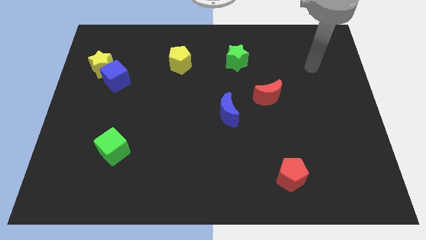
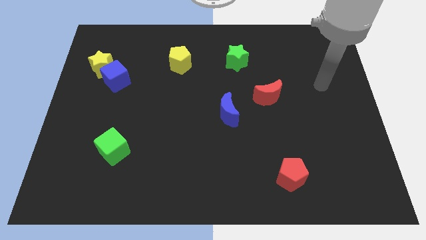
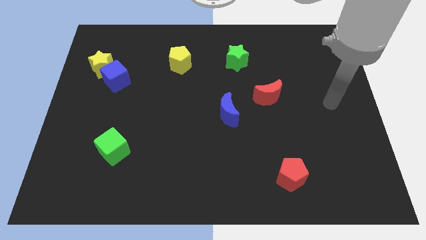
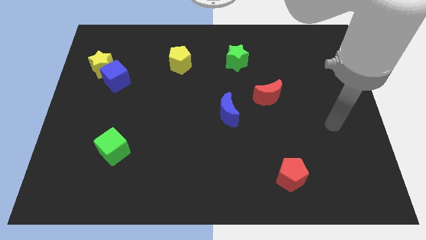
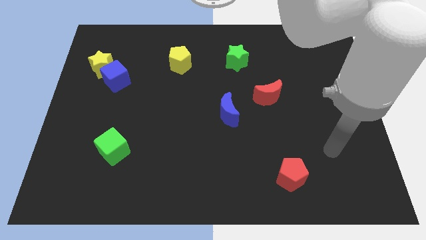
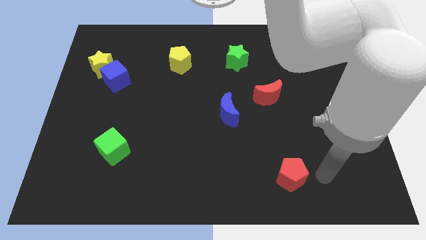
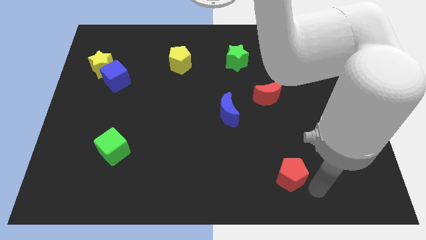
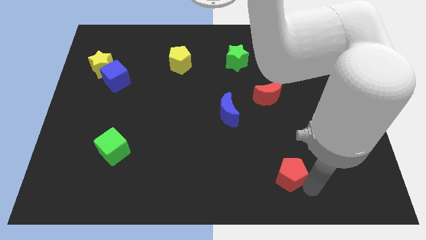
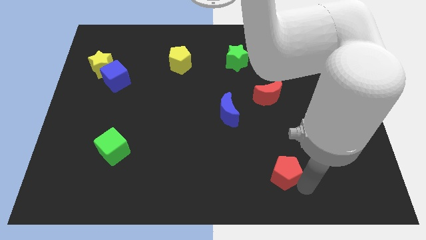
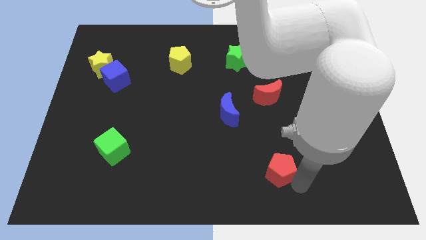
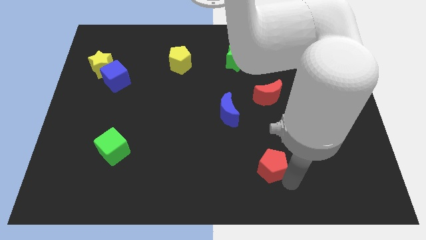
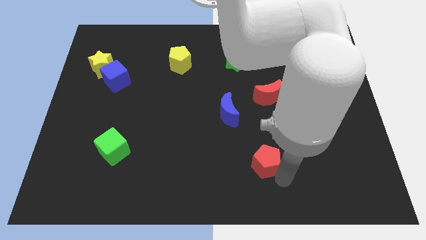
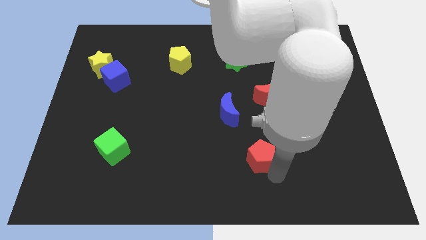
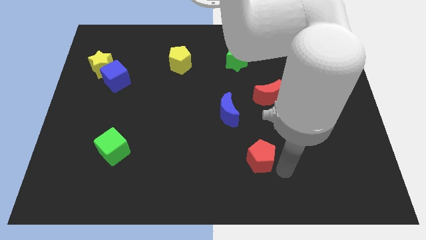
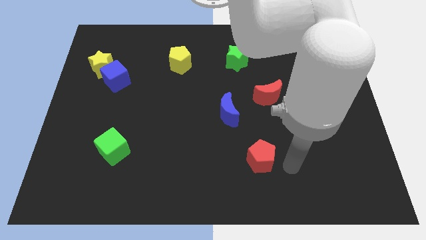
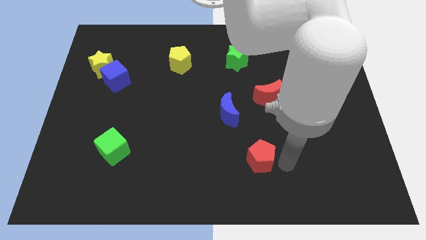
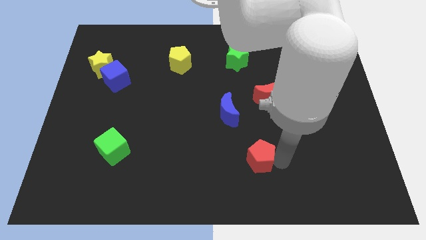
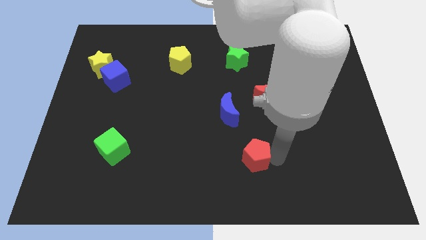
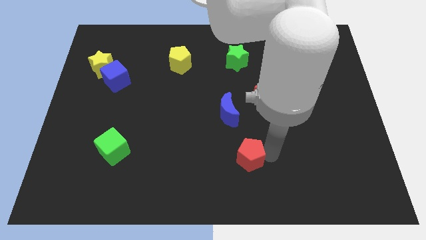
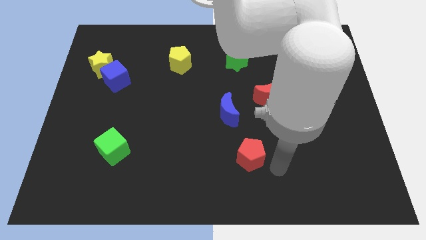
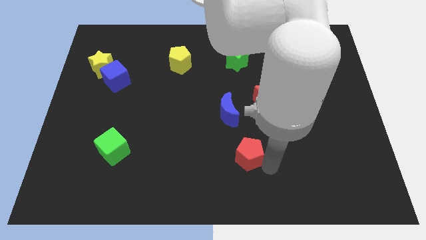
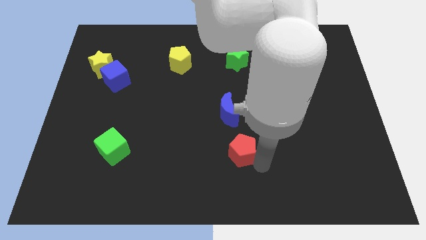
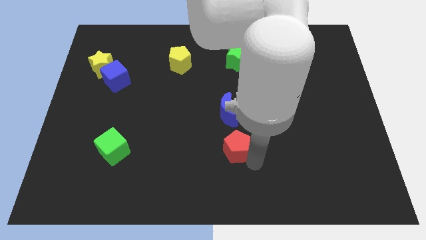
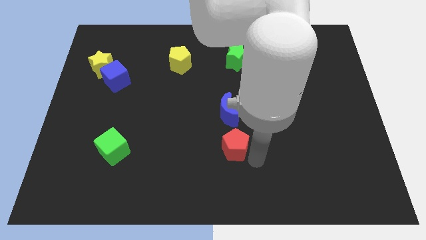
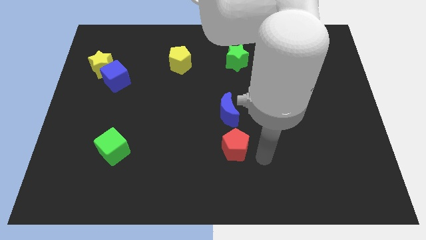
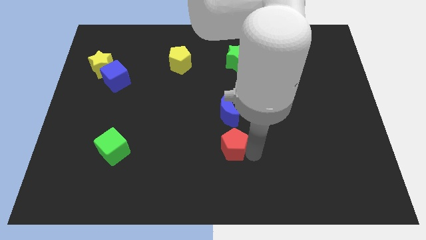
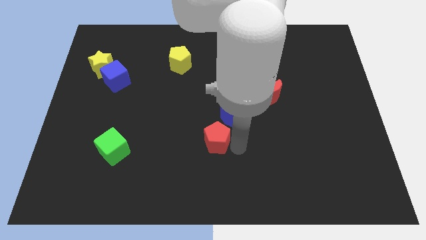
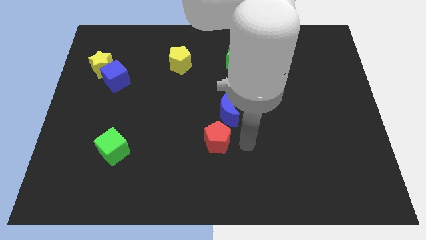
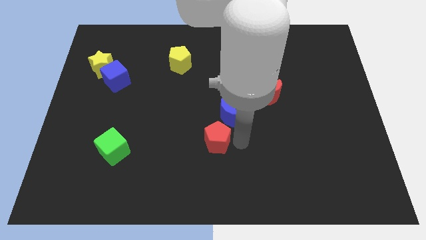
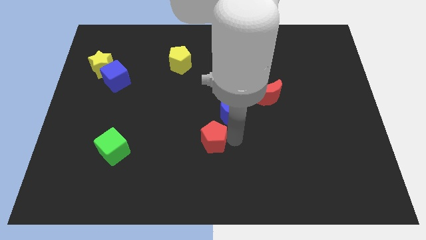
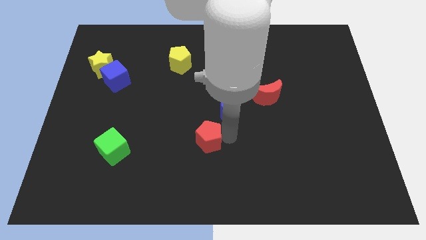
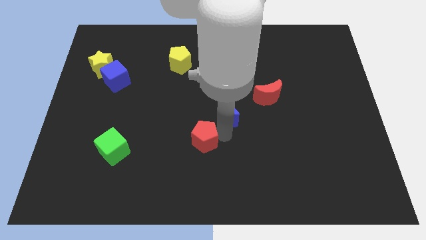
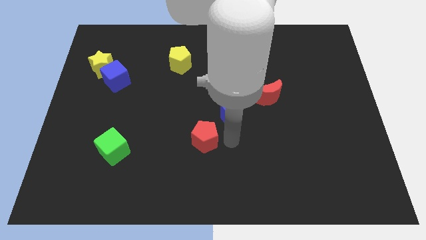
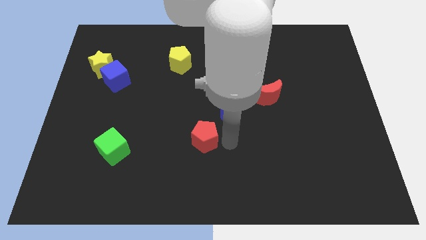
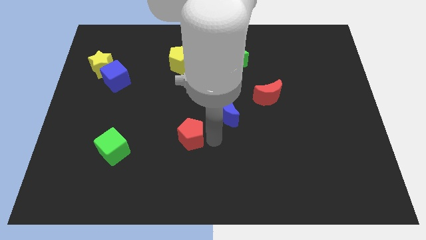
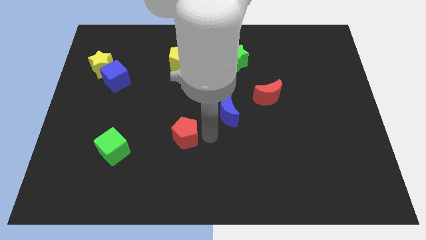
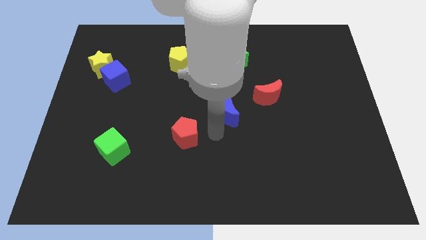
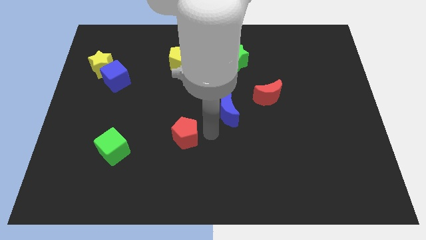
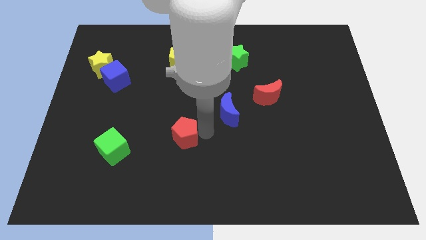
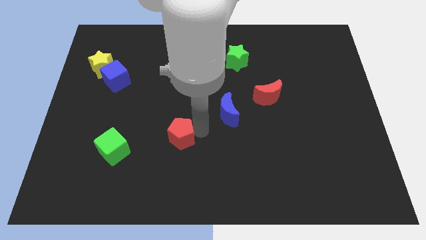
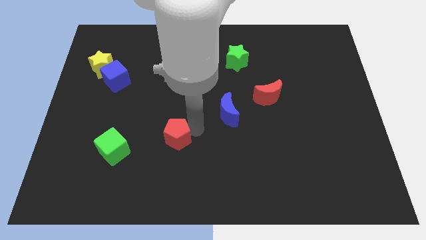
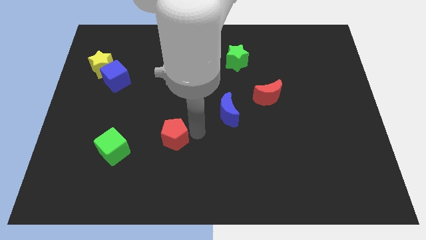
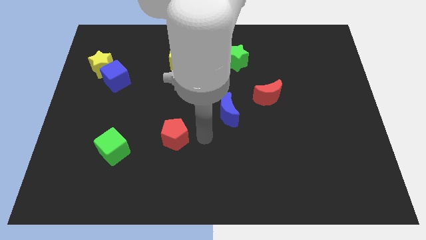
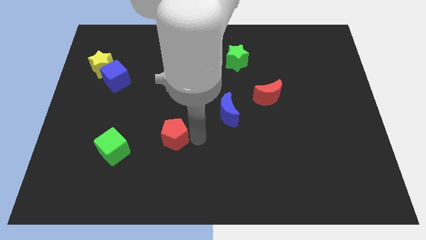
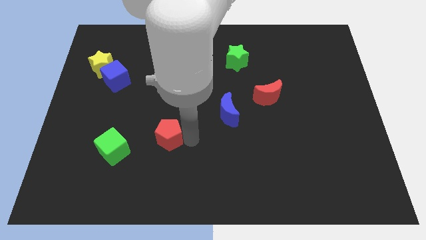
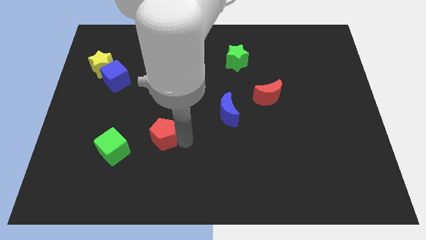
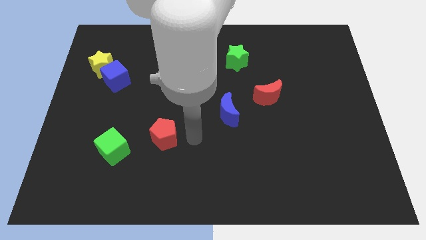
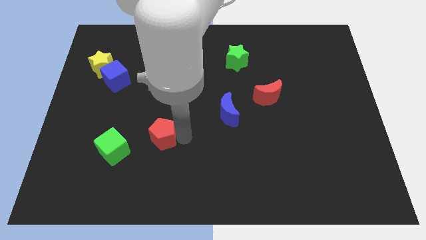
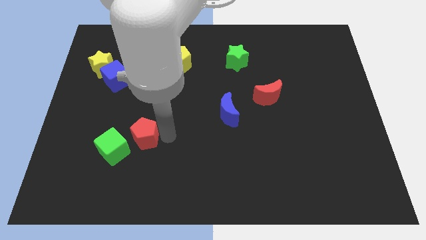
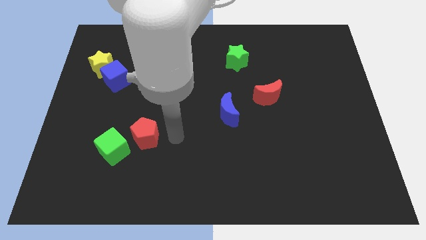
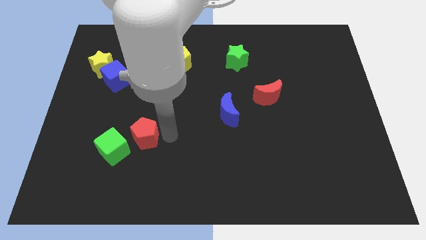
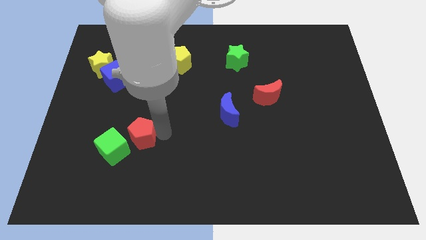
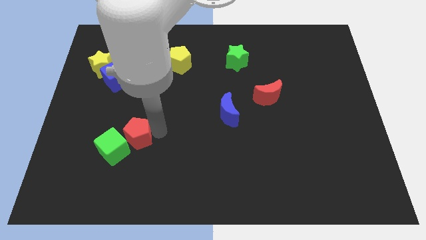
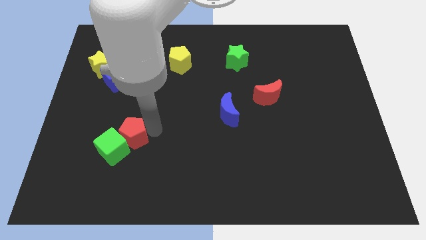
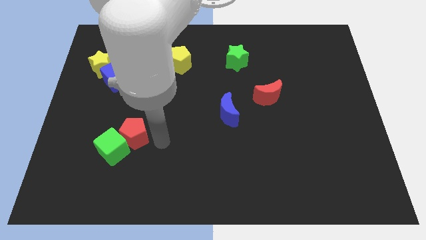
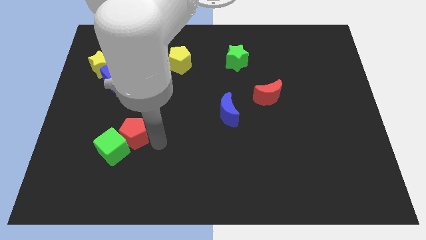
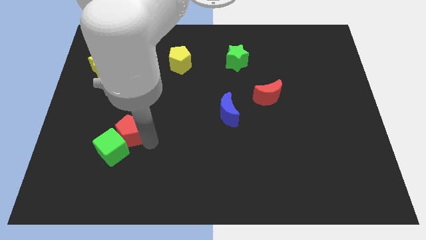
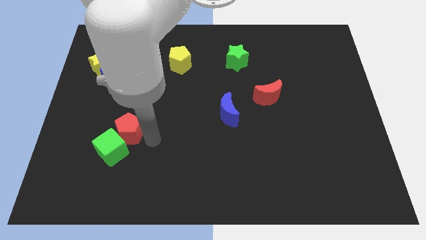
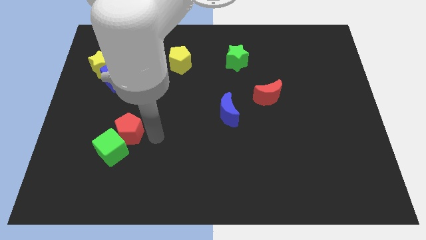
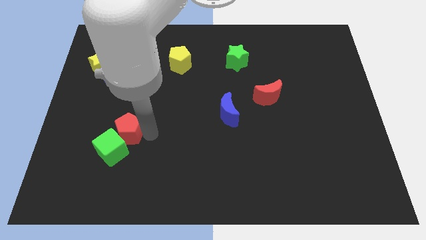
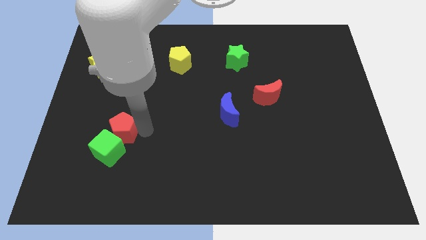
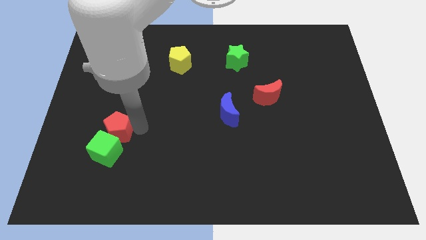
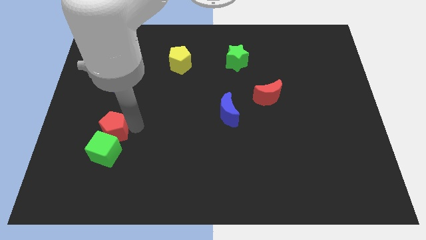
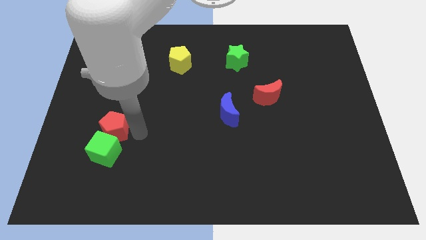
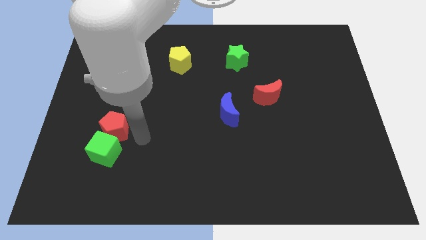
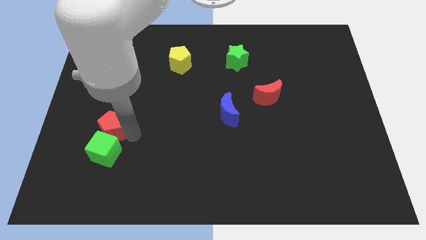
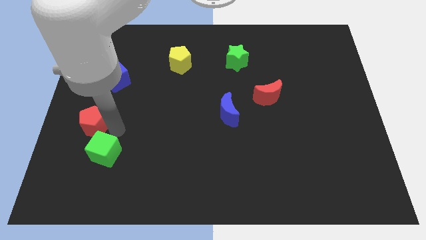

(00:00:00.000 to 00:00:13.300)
push the red pentagon to the left side of the board

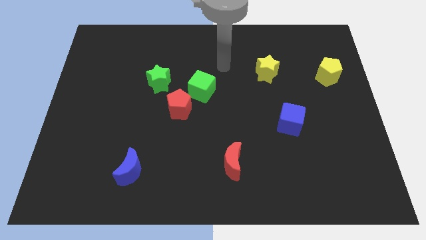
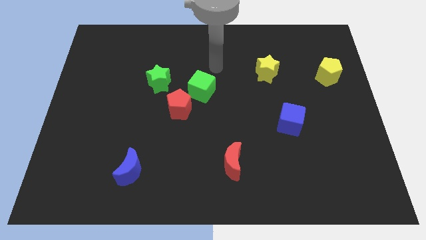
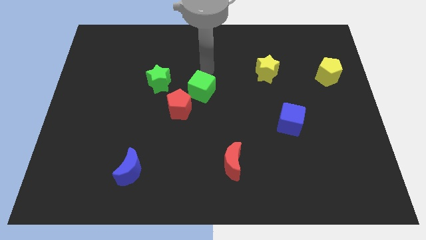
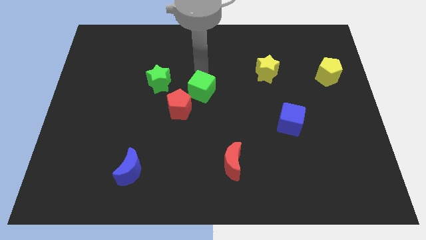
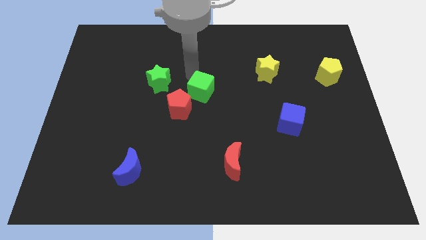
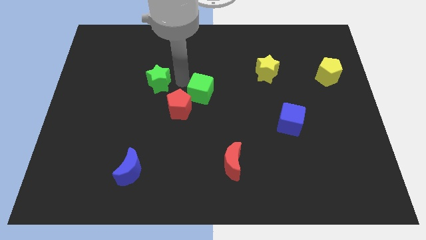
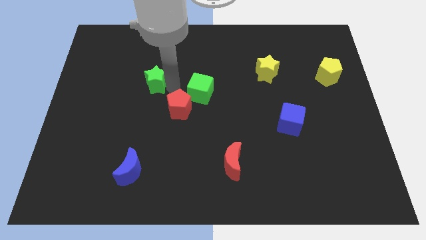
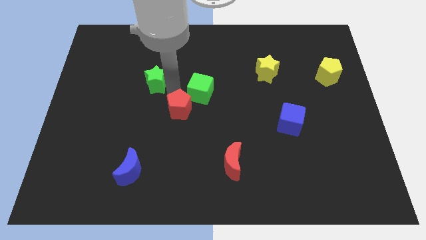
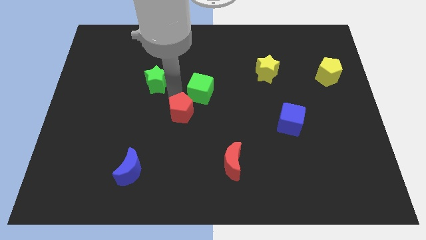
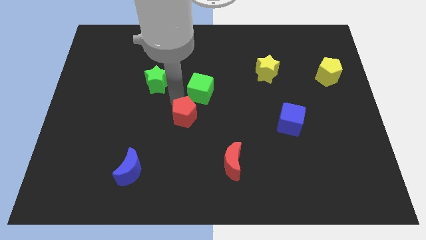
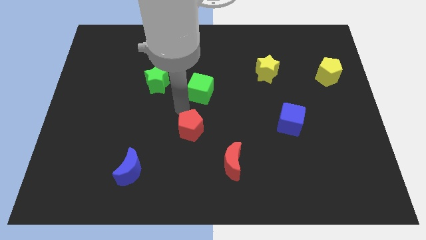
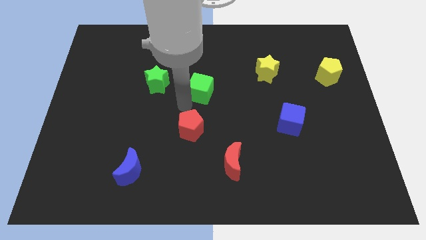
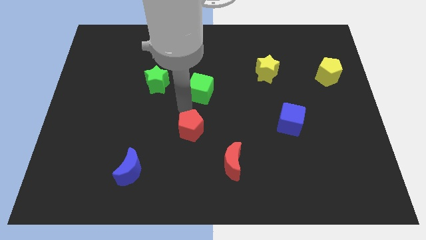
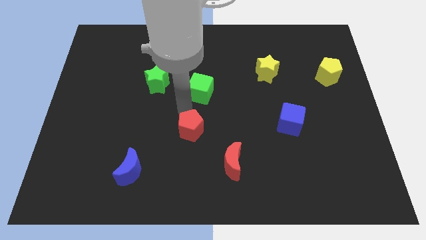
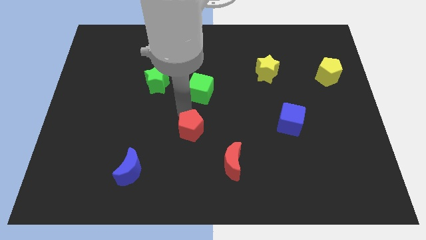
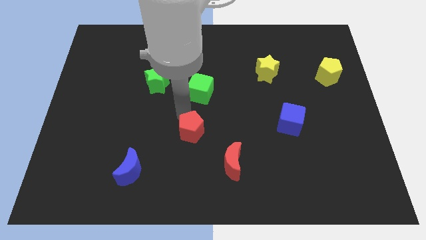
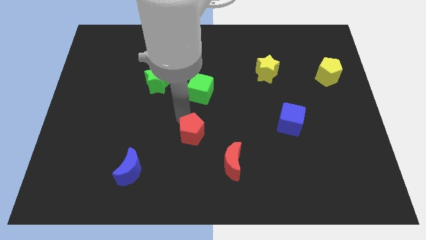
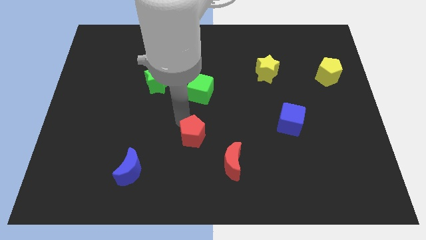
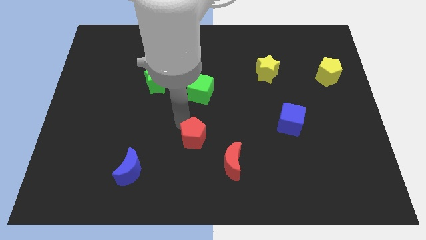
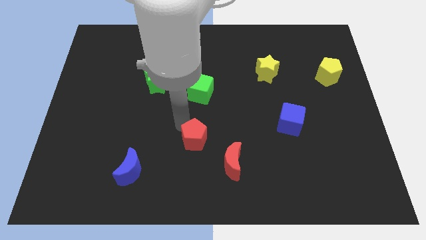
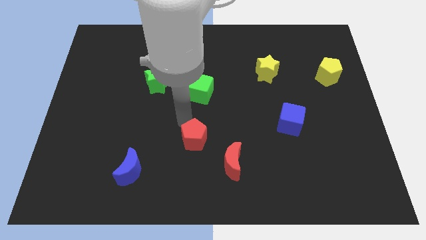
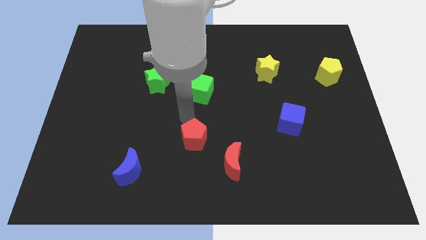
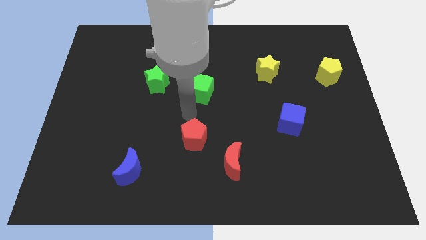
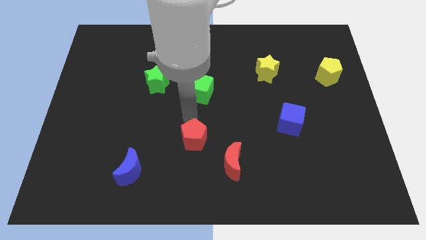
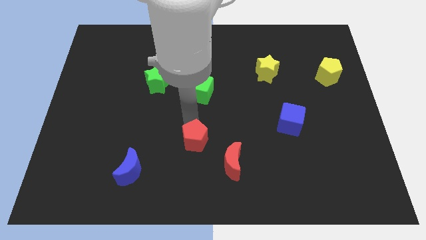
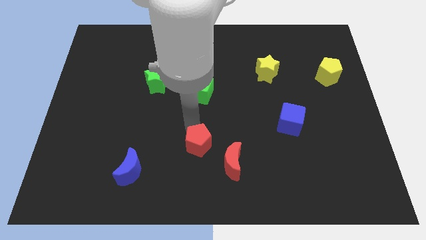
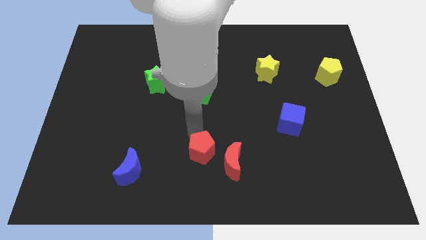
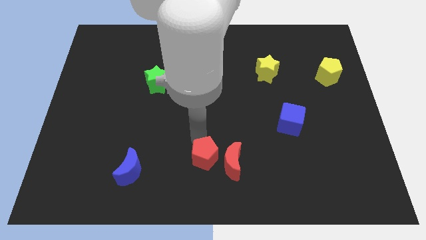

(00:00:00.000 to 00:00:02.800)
slide the red pentagon to the bottom
